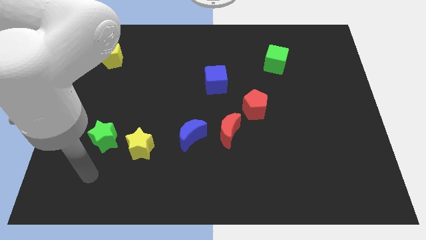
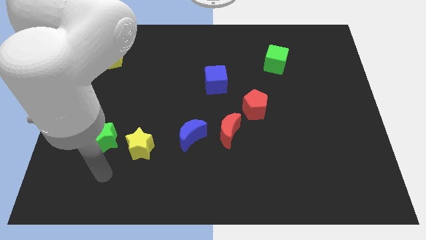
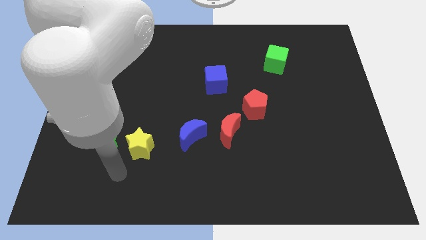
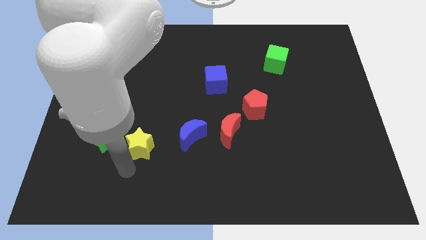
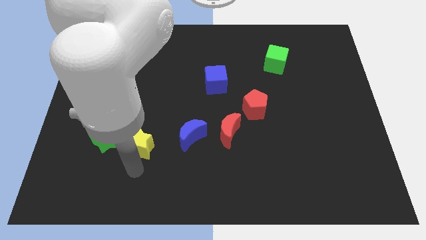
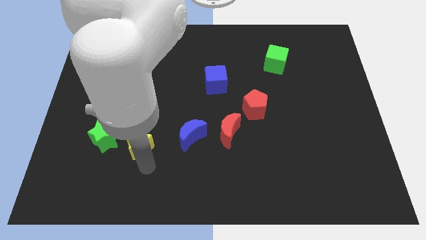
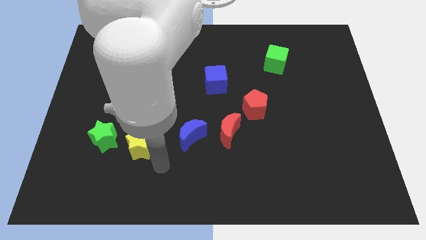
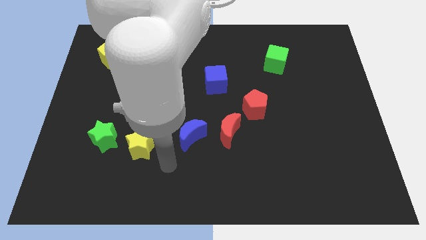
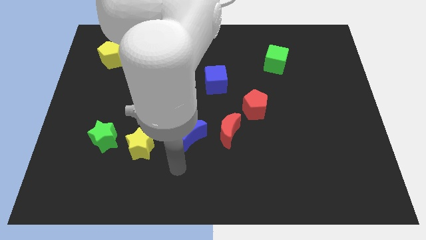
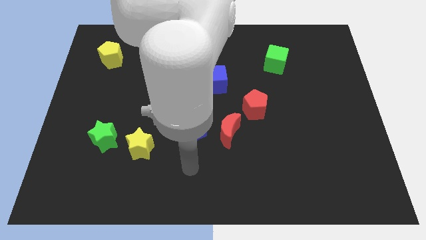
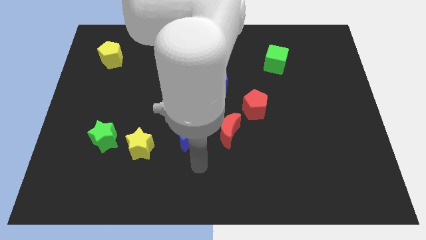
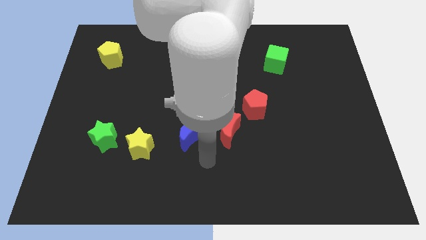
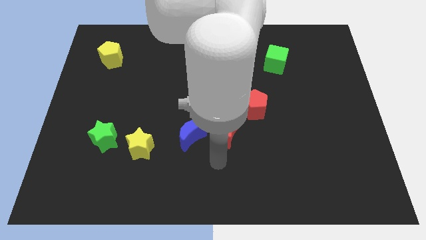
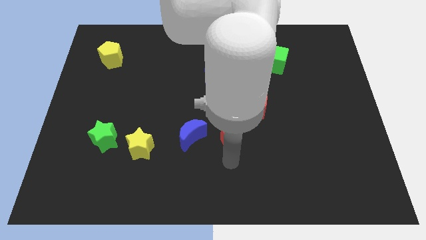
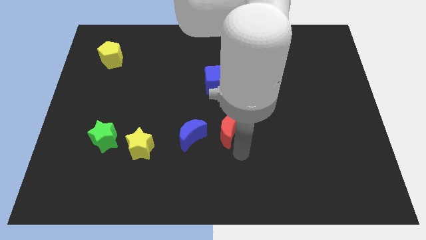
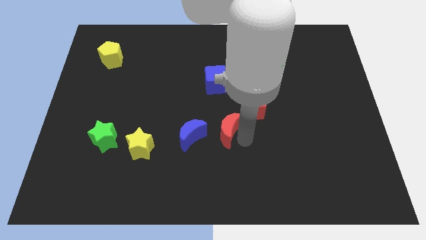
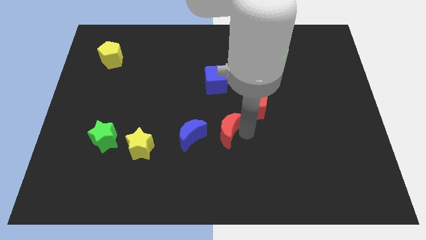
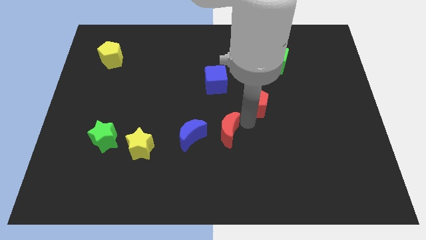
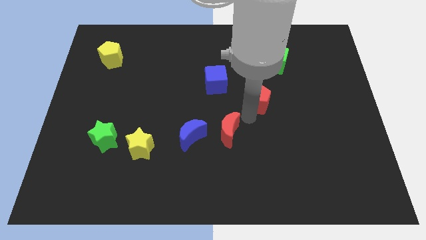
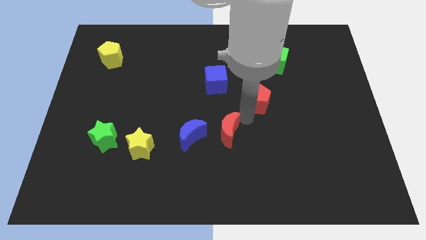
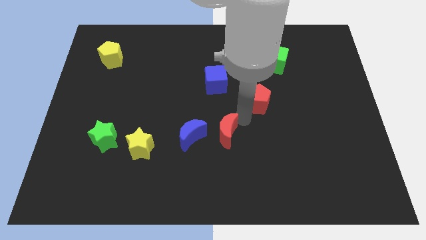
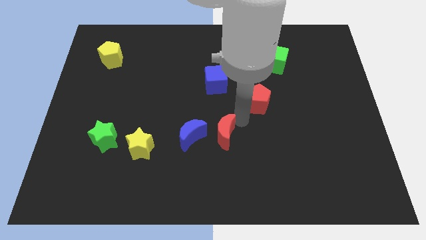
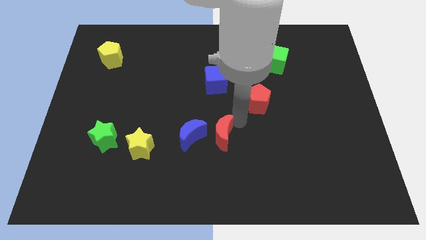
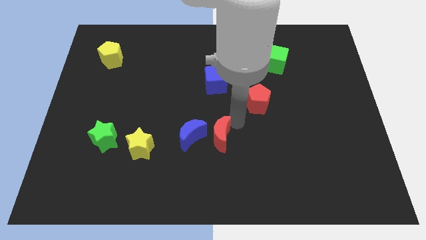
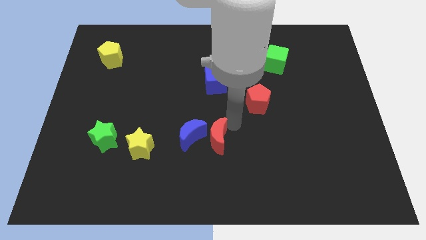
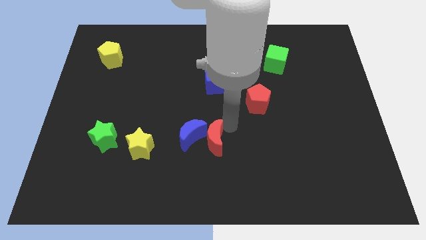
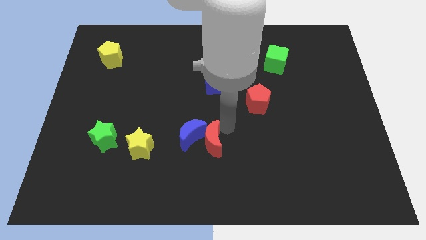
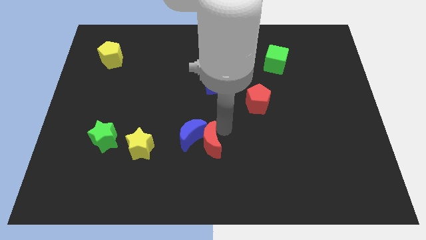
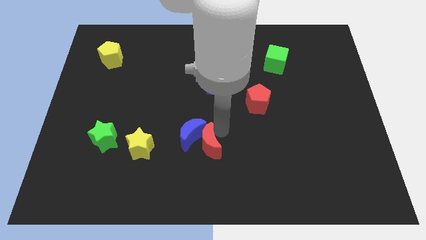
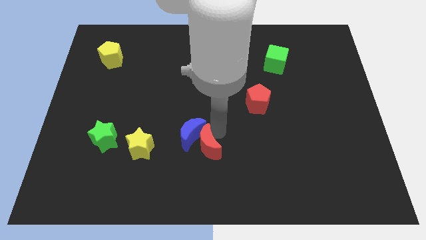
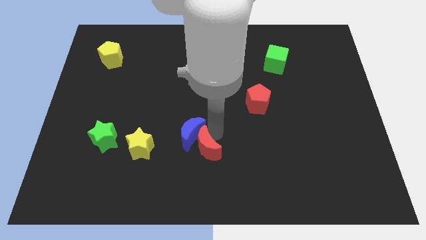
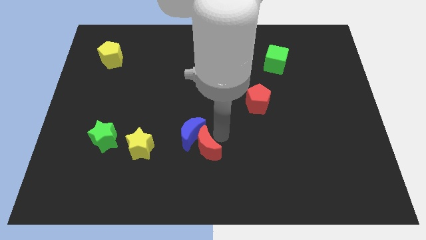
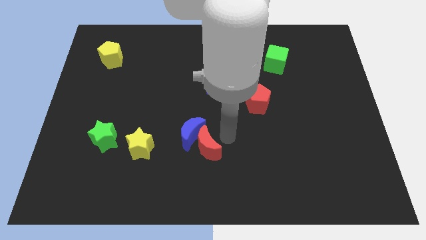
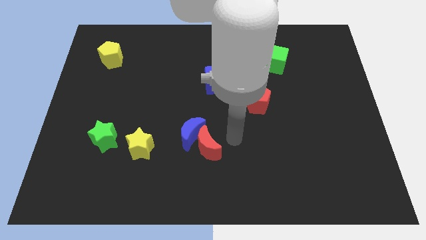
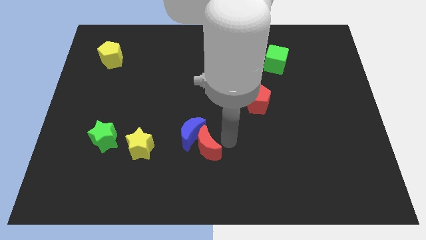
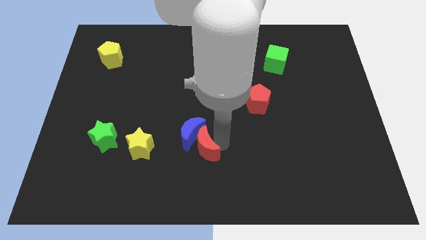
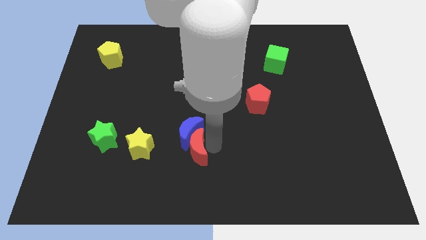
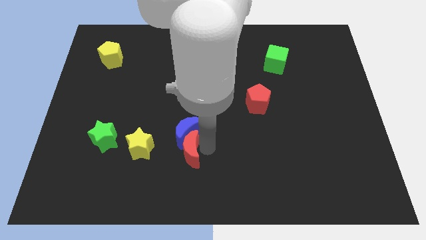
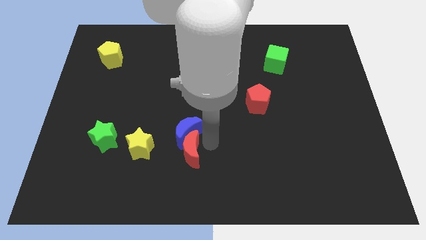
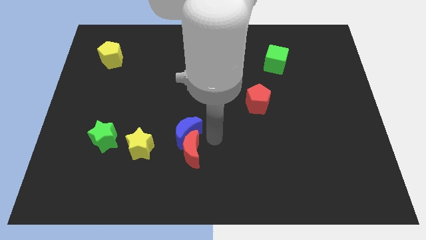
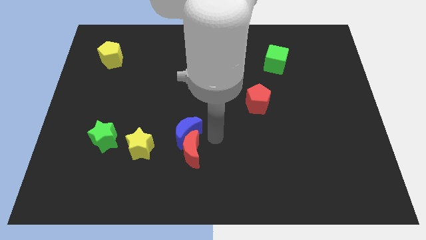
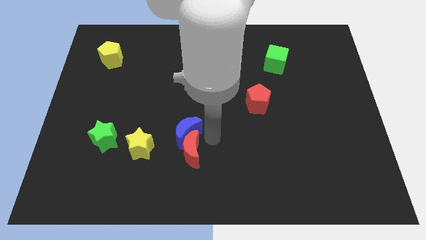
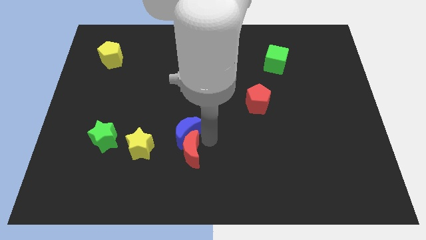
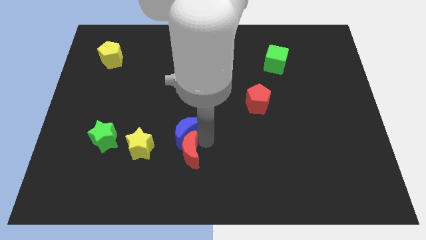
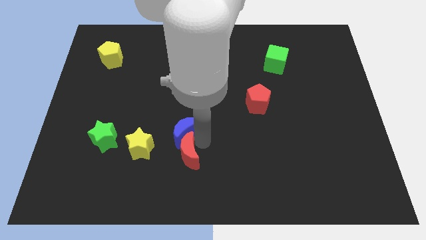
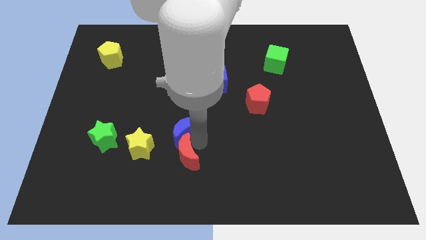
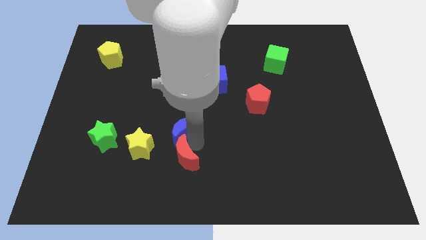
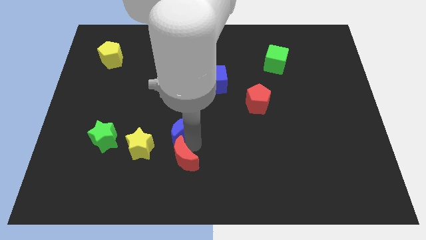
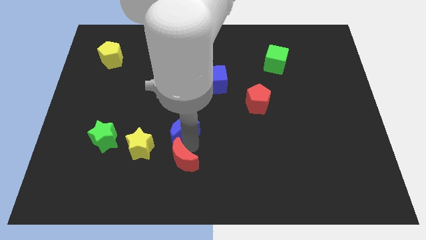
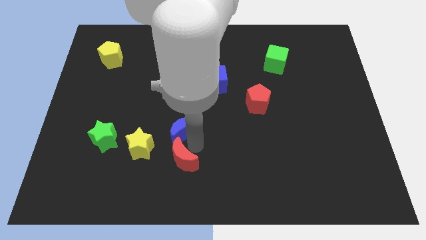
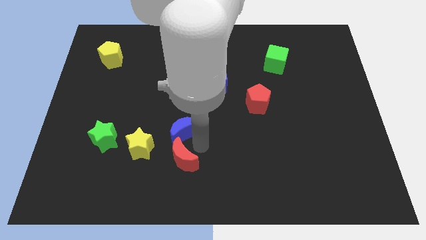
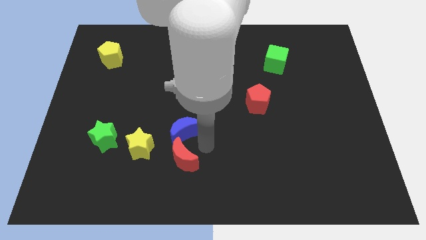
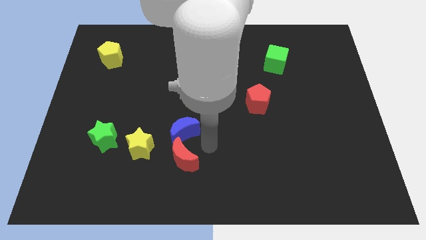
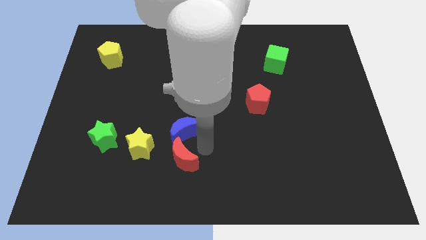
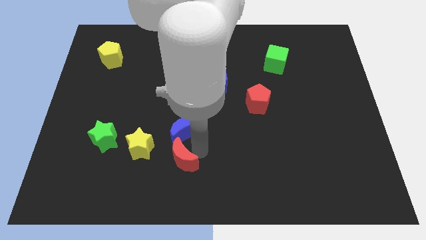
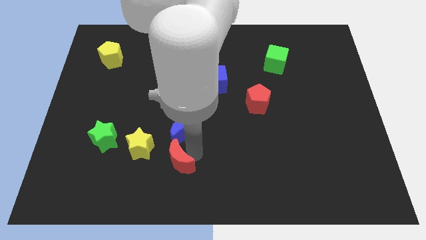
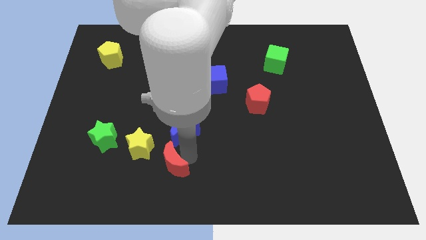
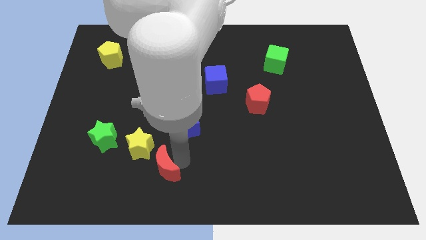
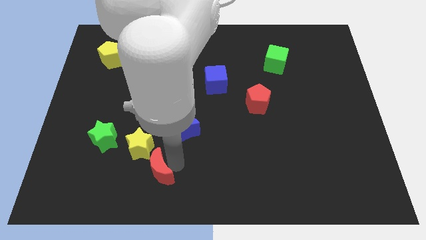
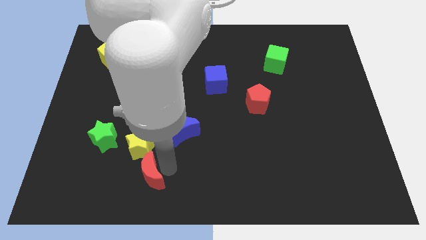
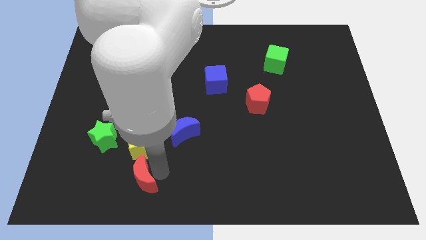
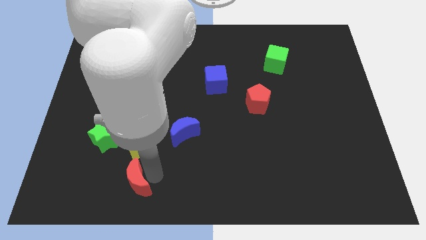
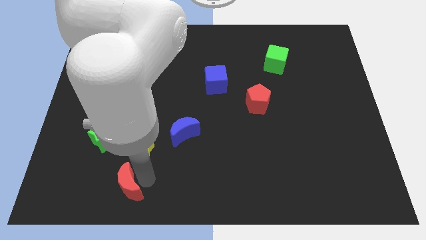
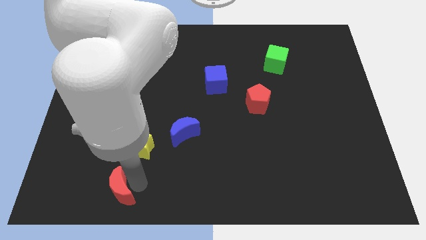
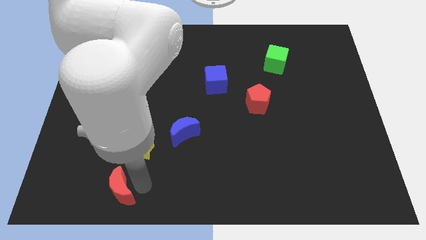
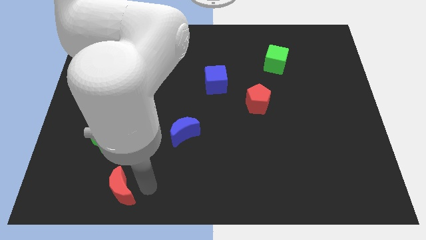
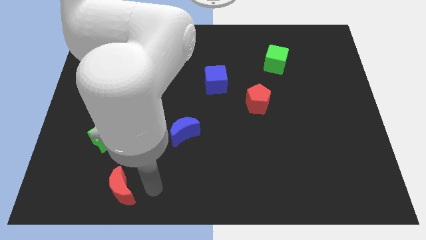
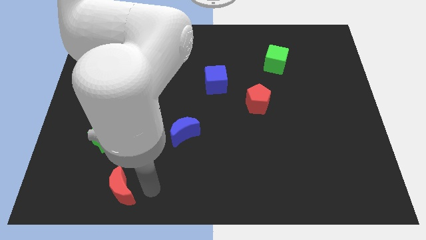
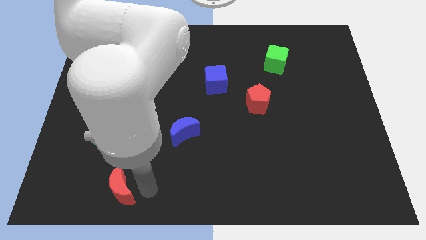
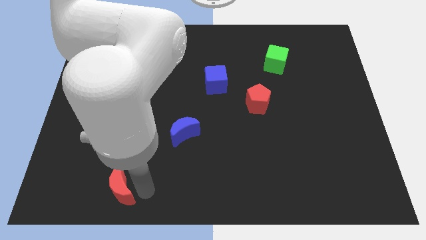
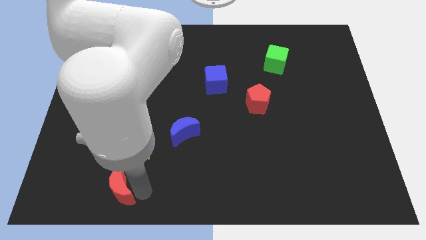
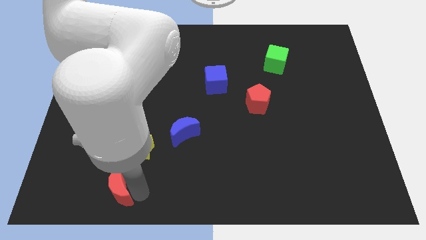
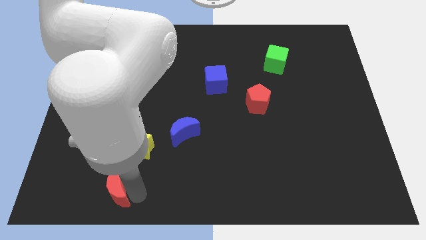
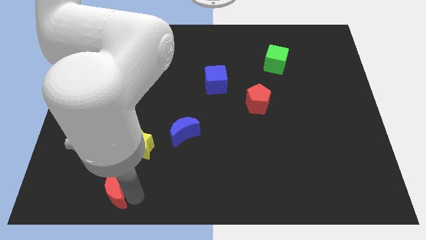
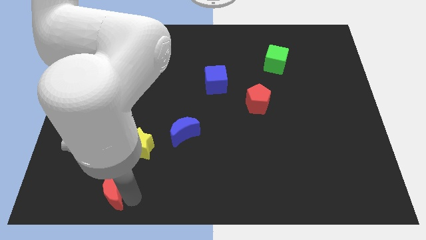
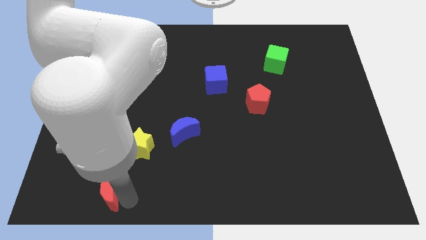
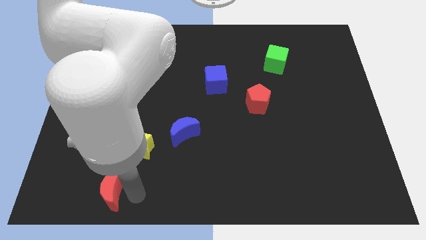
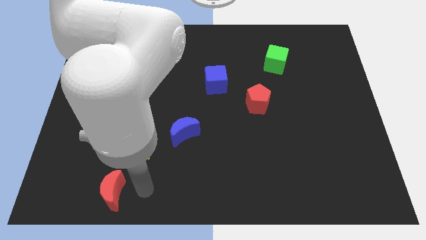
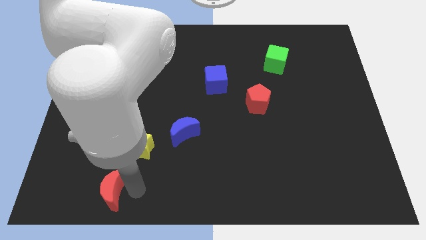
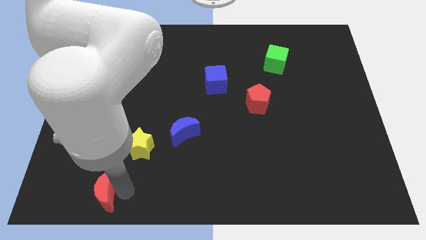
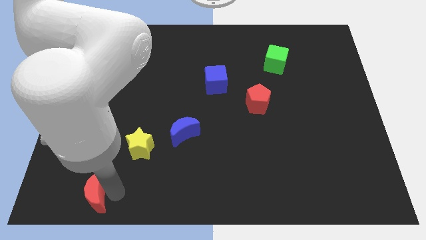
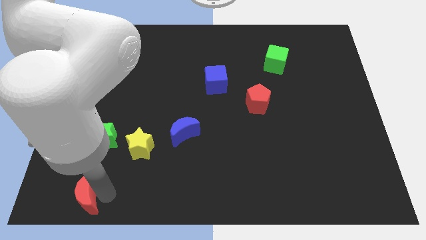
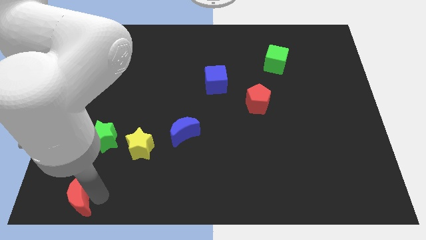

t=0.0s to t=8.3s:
put the red moon to the bottom left
